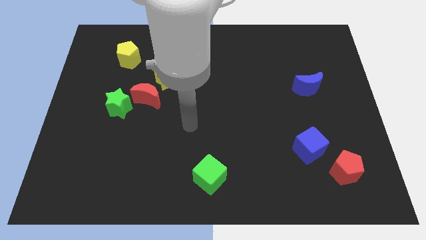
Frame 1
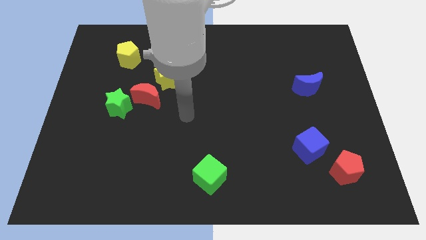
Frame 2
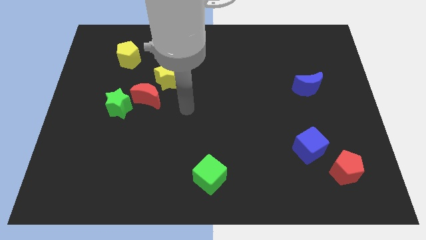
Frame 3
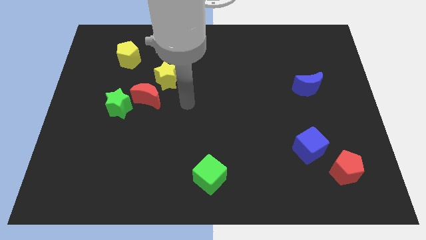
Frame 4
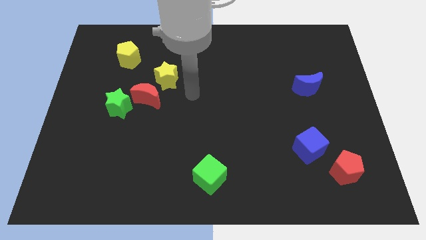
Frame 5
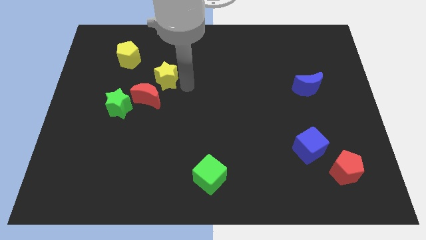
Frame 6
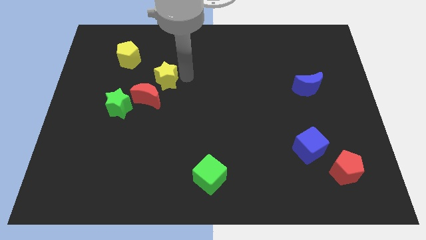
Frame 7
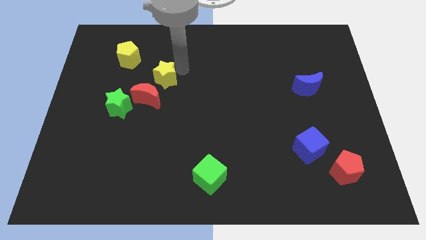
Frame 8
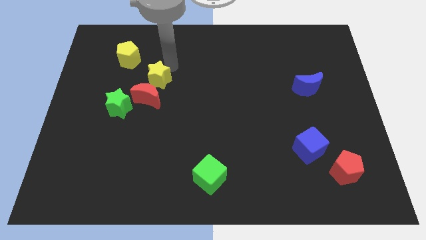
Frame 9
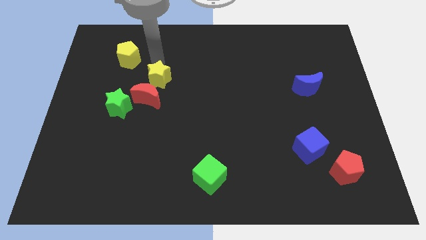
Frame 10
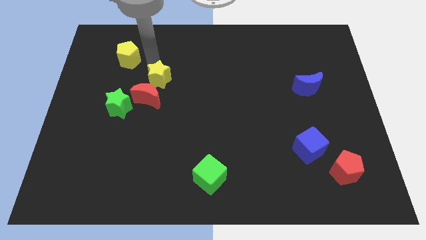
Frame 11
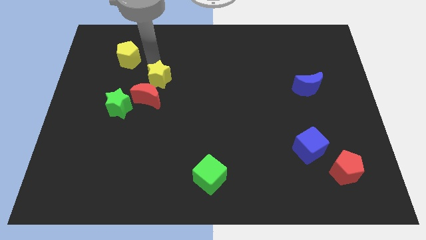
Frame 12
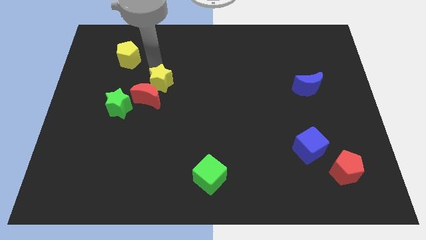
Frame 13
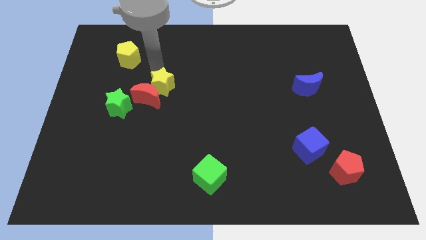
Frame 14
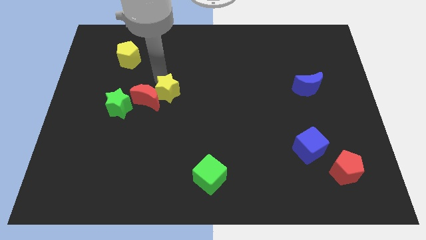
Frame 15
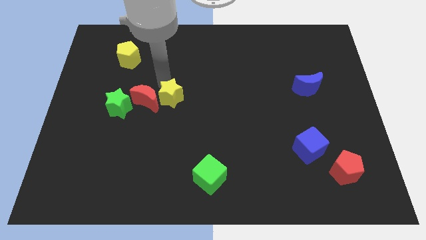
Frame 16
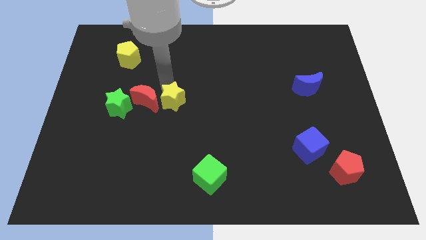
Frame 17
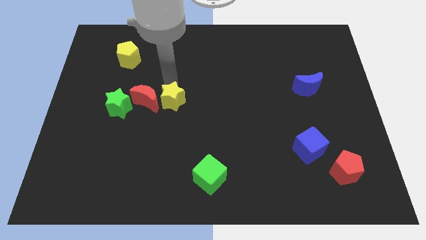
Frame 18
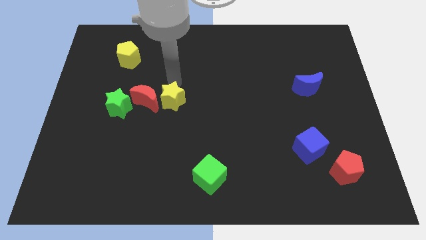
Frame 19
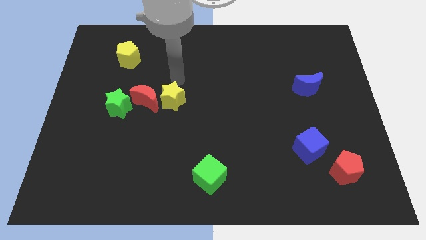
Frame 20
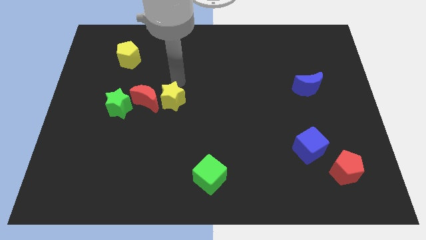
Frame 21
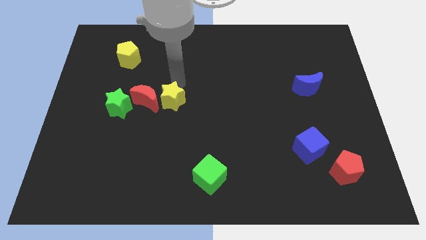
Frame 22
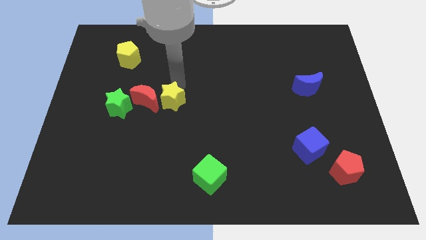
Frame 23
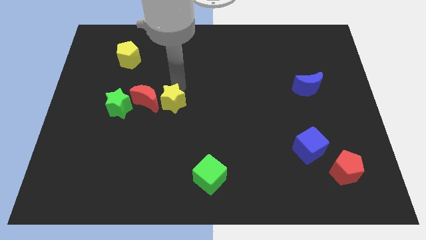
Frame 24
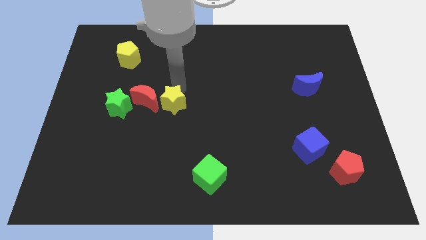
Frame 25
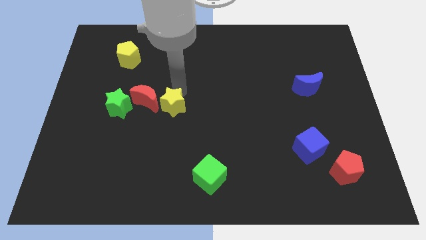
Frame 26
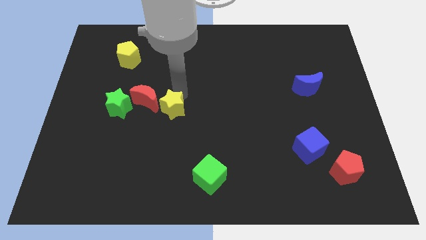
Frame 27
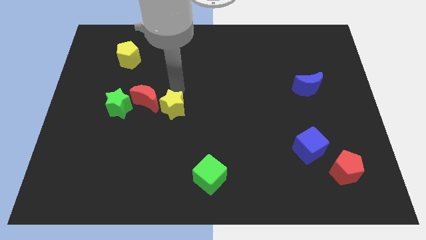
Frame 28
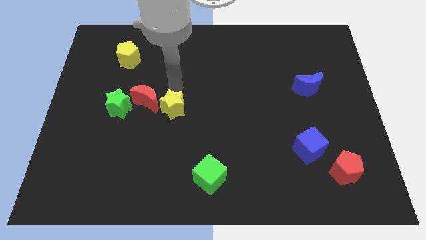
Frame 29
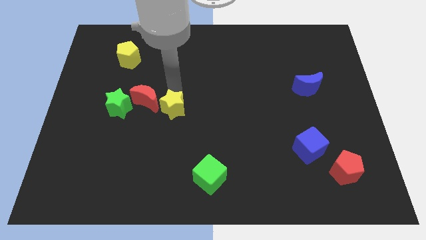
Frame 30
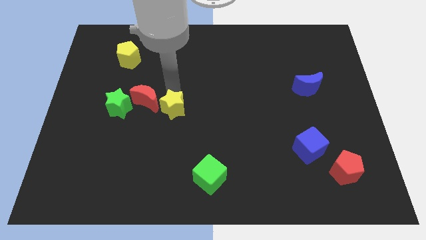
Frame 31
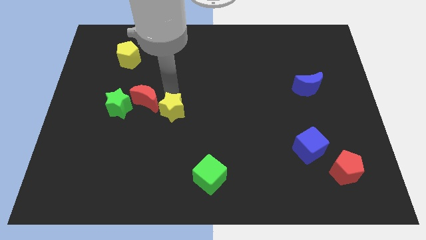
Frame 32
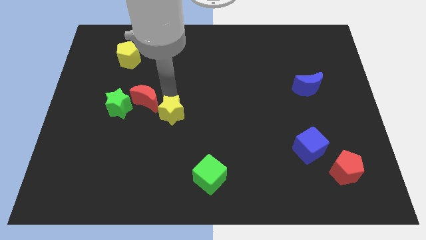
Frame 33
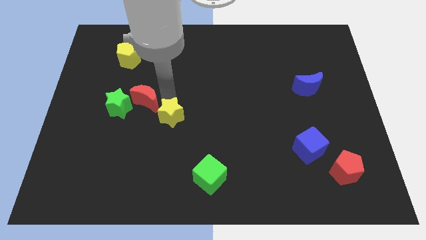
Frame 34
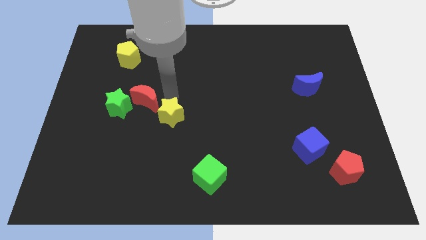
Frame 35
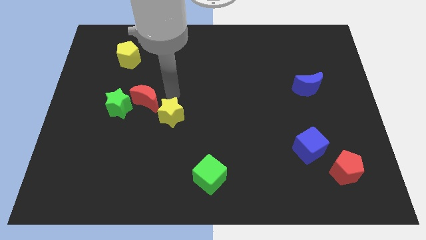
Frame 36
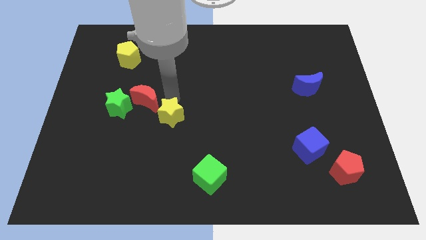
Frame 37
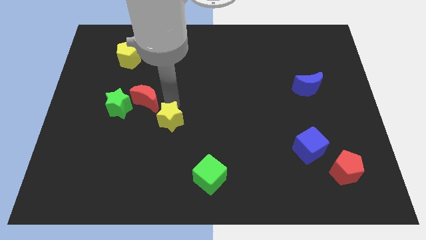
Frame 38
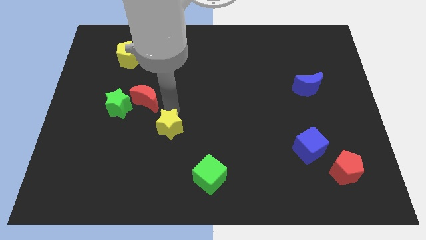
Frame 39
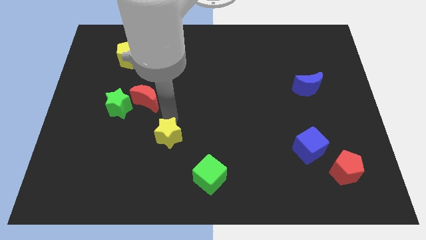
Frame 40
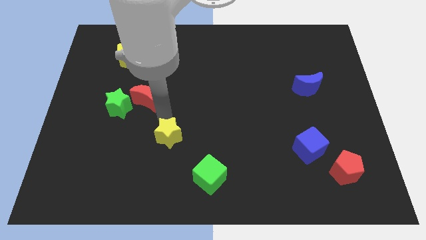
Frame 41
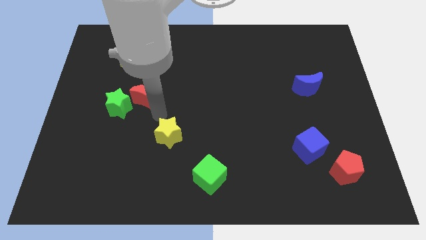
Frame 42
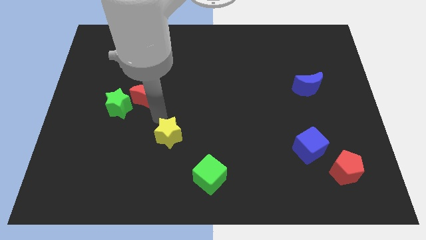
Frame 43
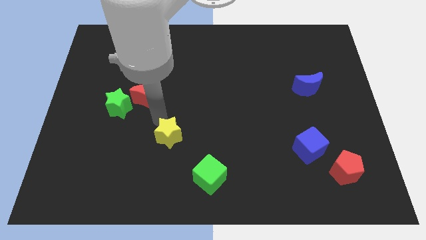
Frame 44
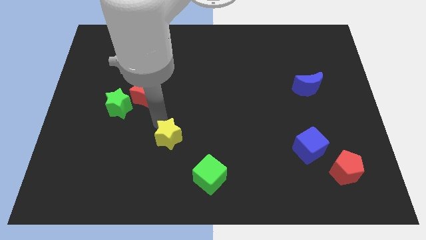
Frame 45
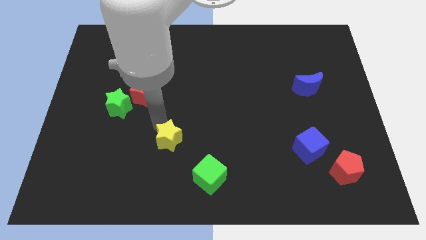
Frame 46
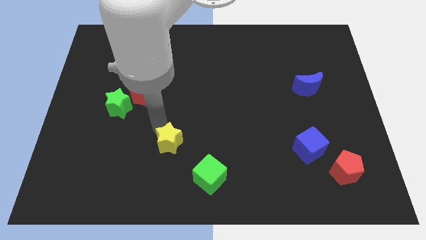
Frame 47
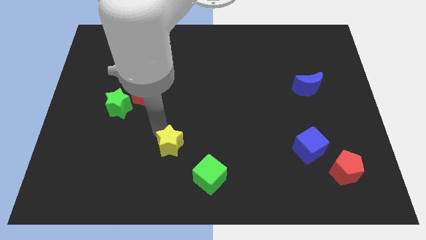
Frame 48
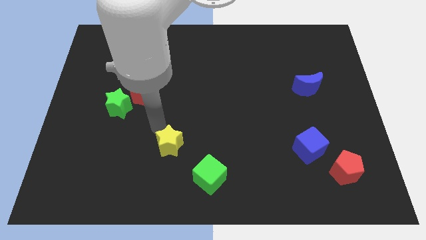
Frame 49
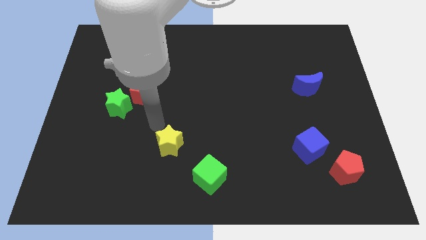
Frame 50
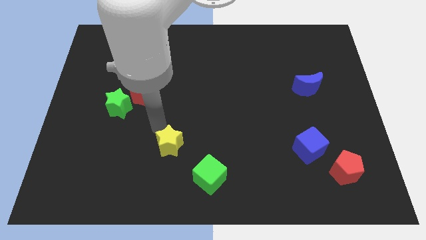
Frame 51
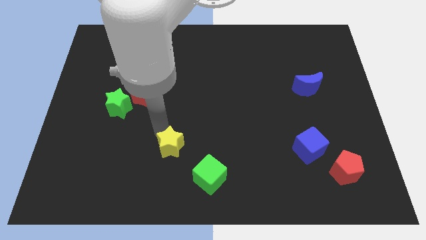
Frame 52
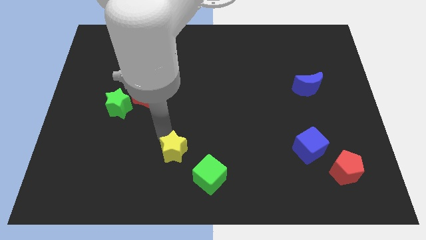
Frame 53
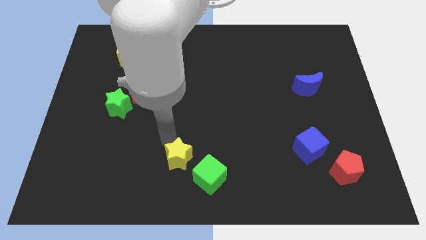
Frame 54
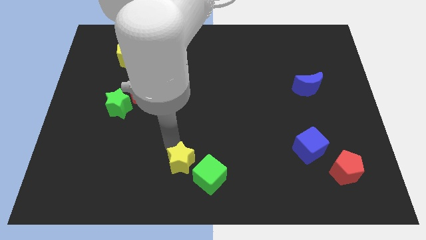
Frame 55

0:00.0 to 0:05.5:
slide the yellow star to the bottom side
